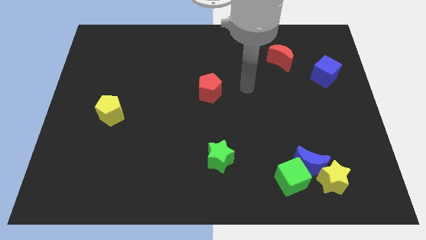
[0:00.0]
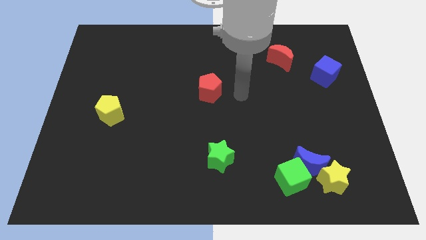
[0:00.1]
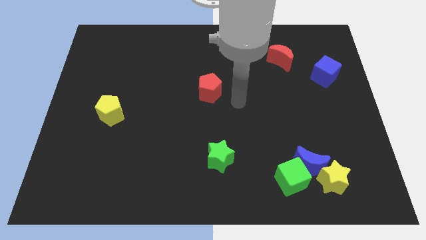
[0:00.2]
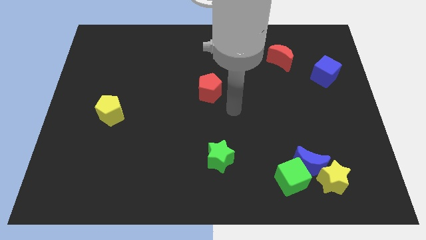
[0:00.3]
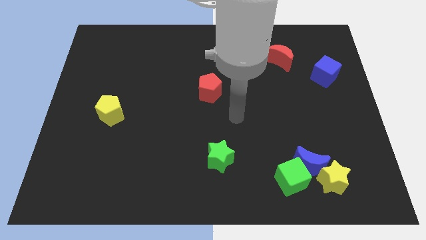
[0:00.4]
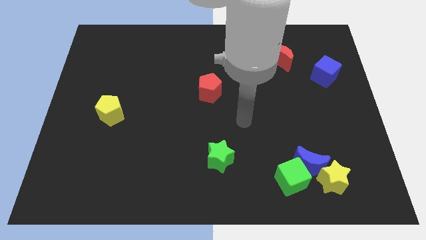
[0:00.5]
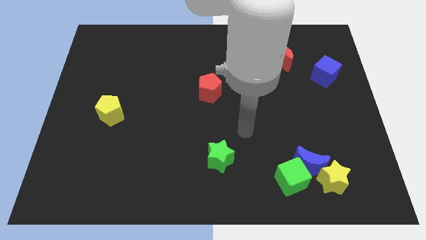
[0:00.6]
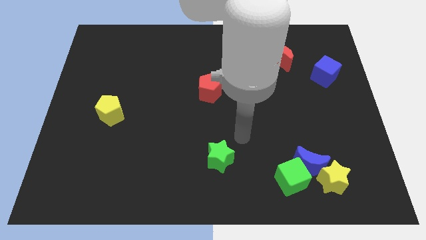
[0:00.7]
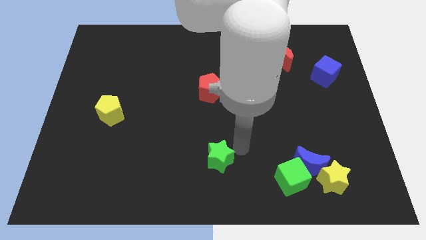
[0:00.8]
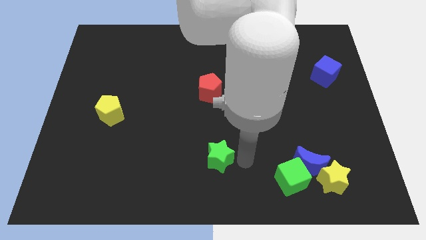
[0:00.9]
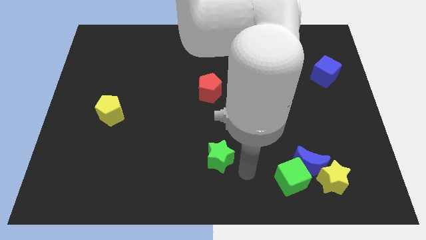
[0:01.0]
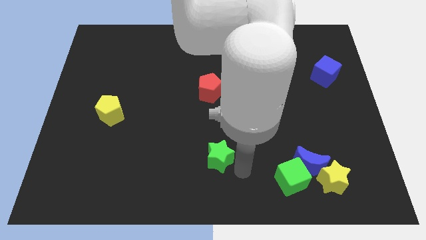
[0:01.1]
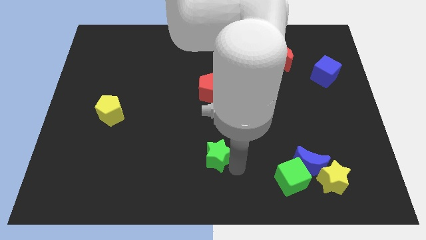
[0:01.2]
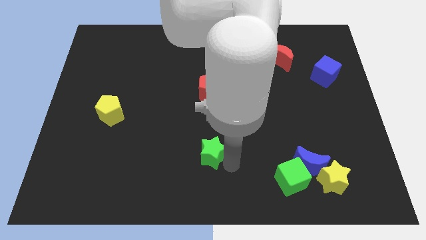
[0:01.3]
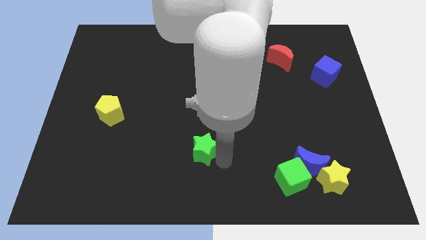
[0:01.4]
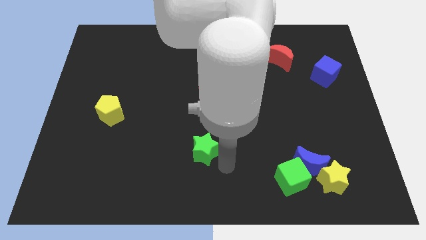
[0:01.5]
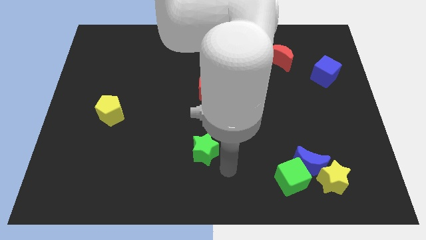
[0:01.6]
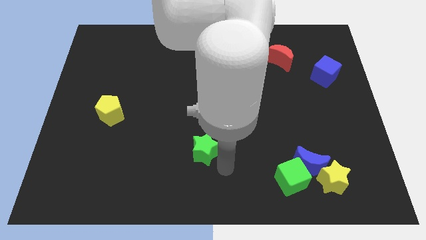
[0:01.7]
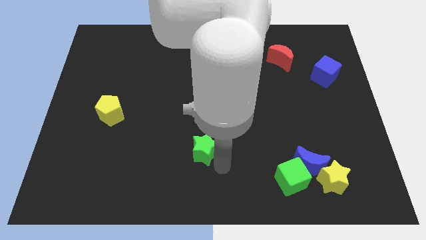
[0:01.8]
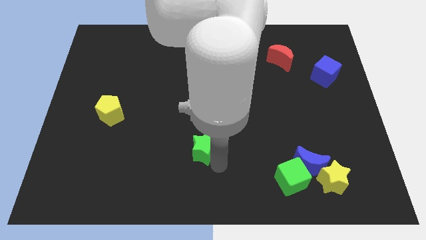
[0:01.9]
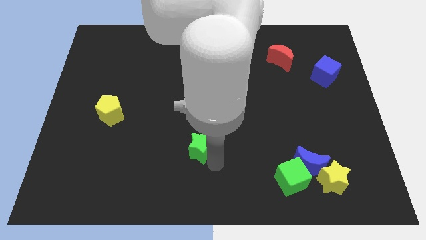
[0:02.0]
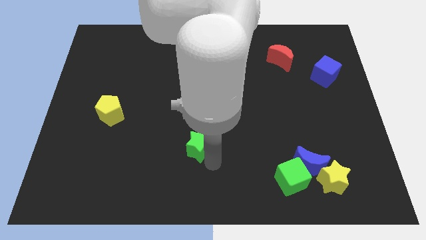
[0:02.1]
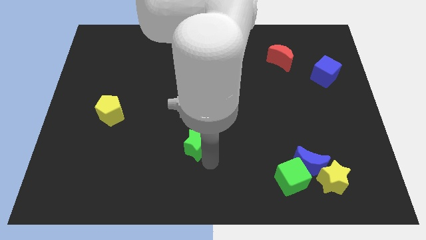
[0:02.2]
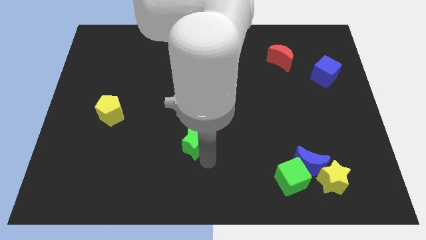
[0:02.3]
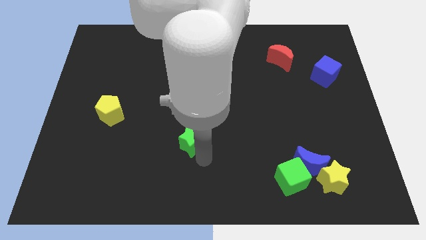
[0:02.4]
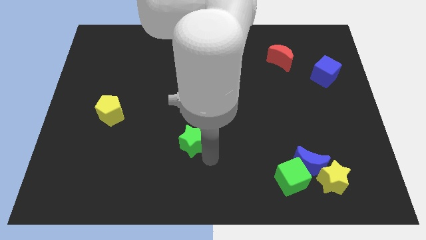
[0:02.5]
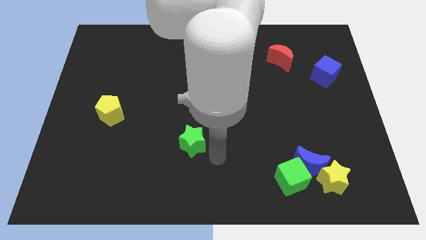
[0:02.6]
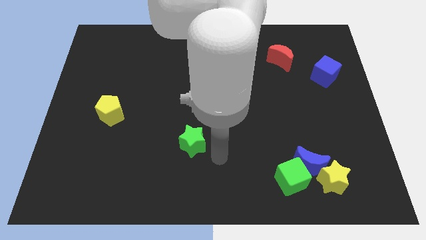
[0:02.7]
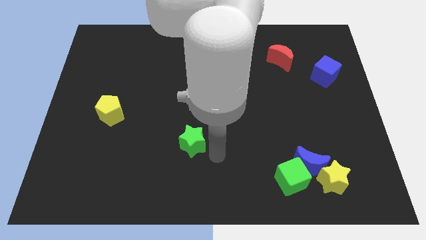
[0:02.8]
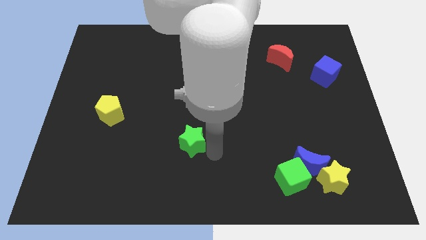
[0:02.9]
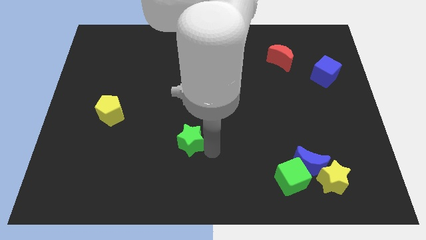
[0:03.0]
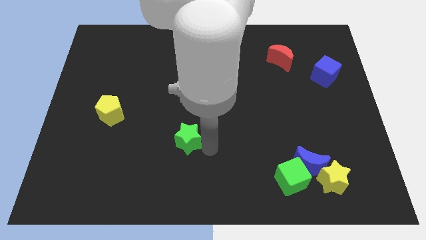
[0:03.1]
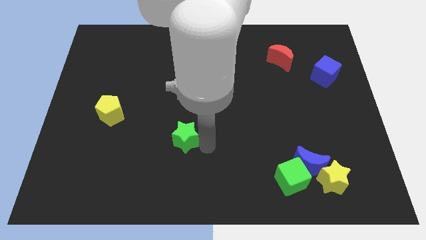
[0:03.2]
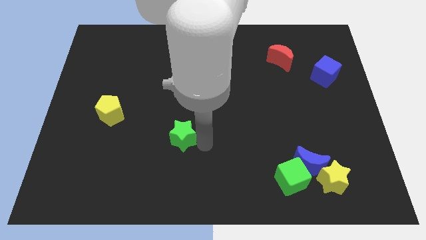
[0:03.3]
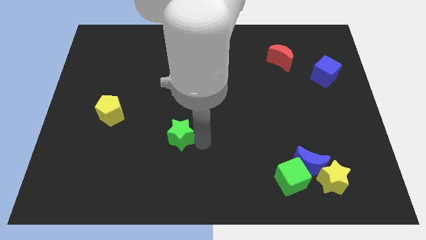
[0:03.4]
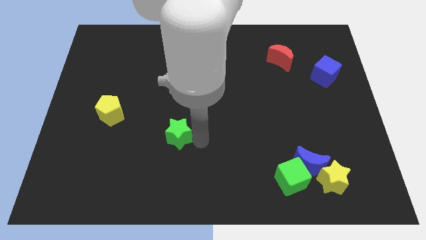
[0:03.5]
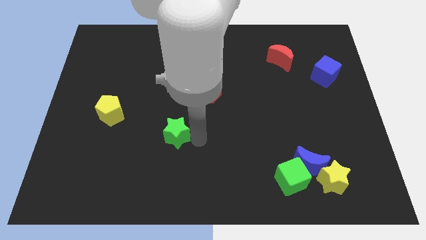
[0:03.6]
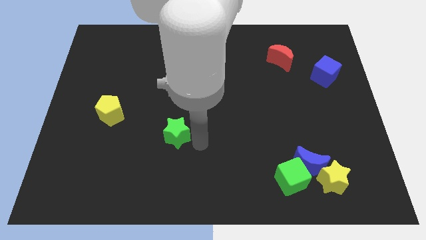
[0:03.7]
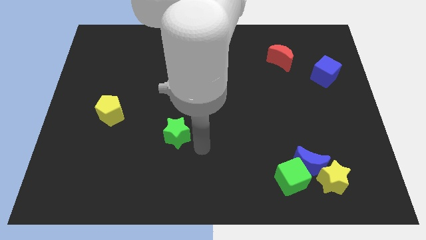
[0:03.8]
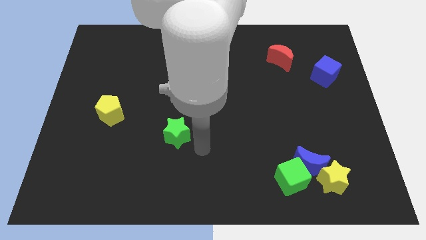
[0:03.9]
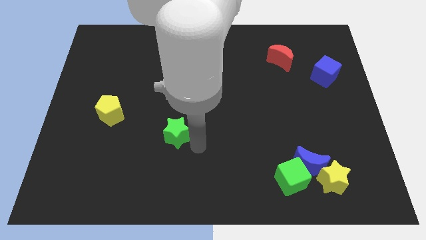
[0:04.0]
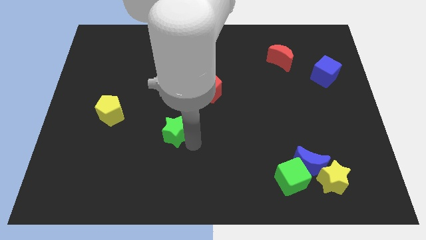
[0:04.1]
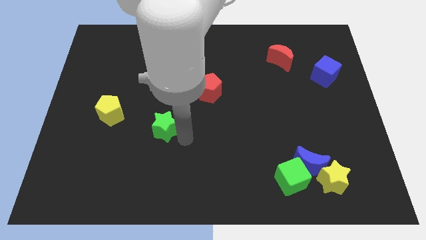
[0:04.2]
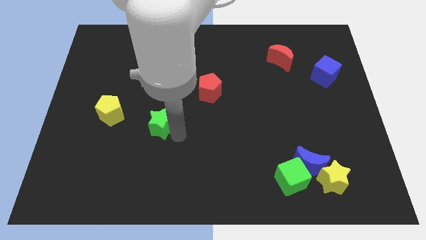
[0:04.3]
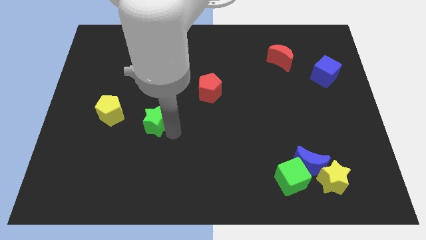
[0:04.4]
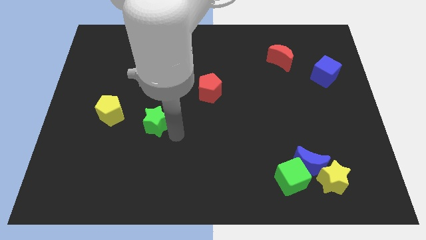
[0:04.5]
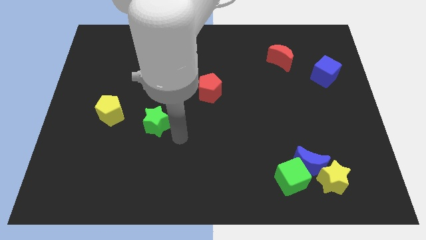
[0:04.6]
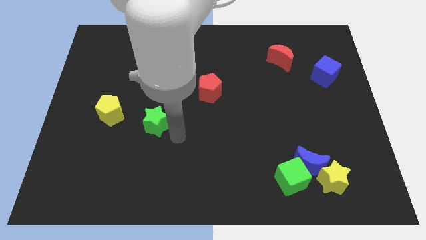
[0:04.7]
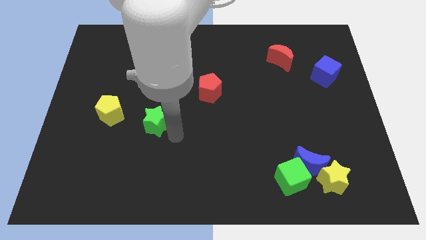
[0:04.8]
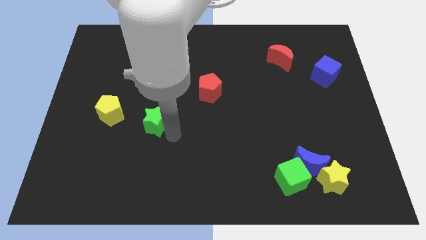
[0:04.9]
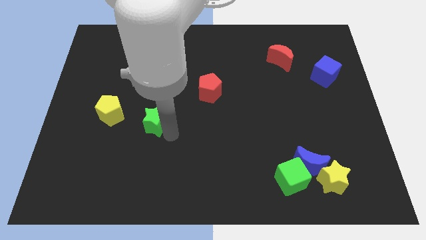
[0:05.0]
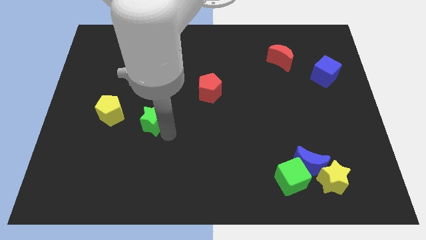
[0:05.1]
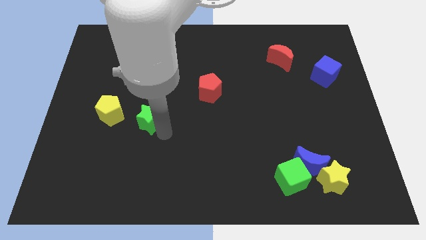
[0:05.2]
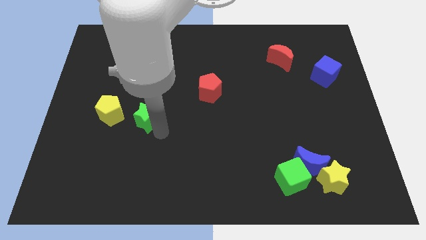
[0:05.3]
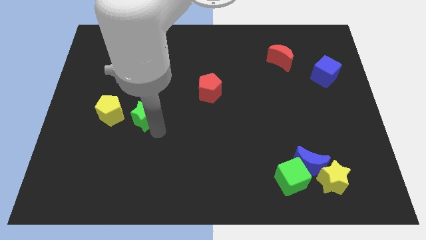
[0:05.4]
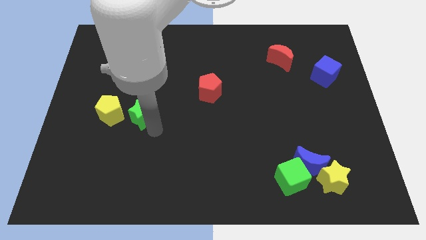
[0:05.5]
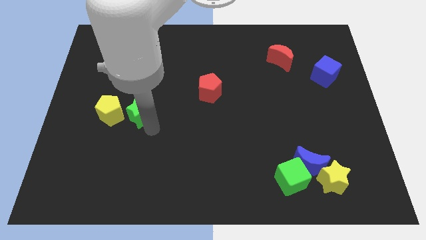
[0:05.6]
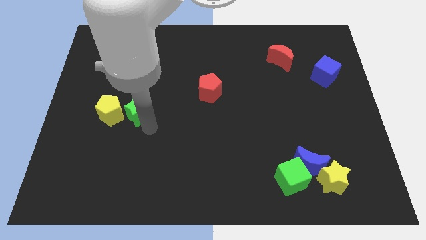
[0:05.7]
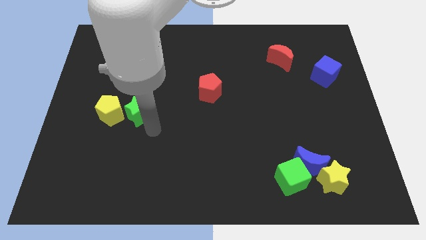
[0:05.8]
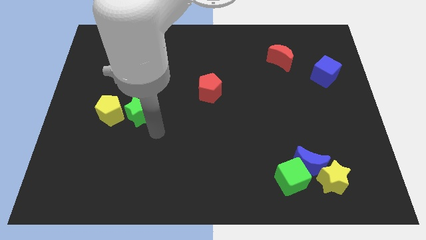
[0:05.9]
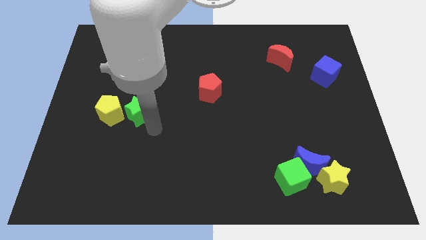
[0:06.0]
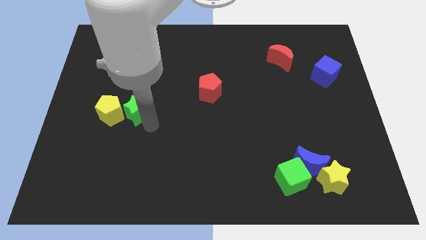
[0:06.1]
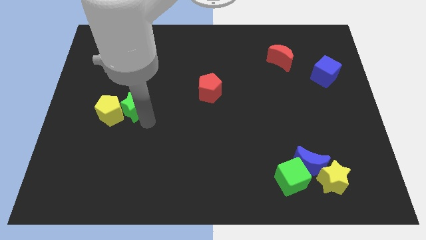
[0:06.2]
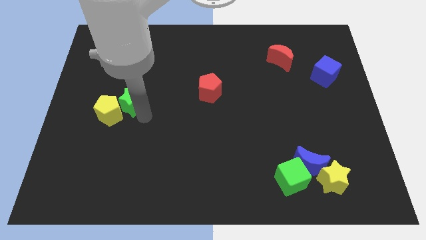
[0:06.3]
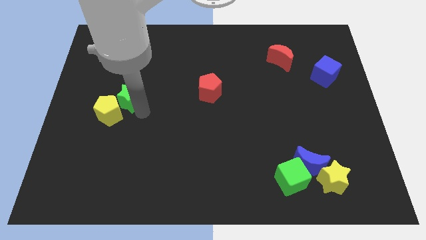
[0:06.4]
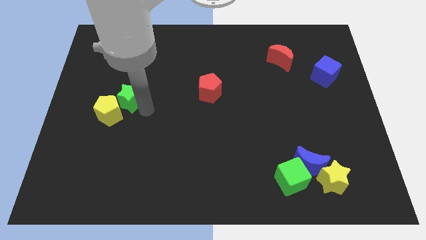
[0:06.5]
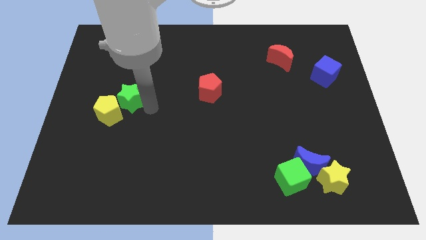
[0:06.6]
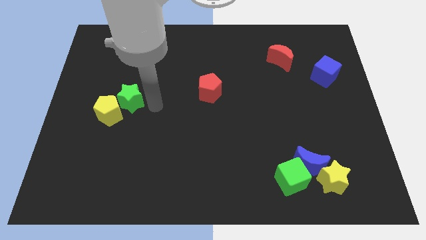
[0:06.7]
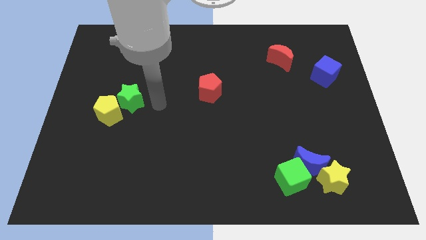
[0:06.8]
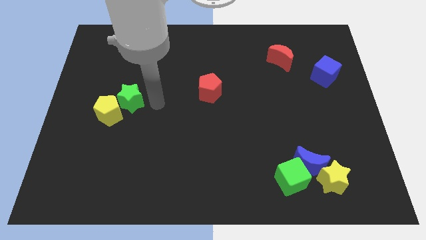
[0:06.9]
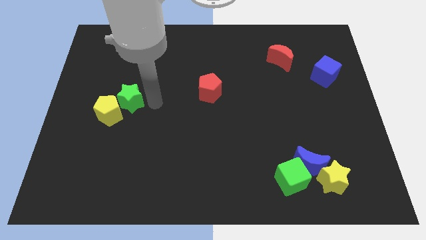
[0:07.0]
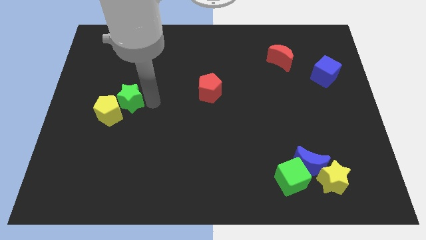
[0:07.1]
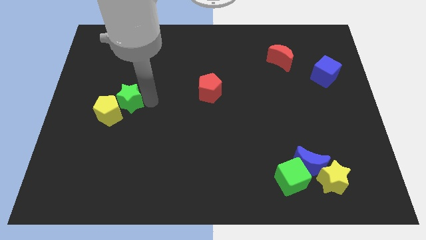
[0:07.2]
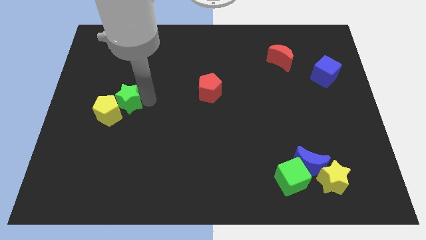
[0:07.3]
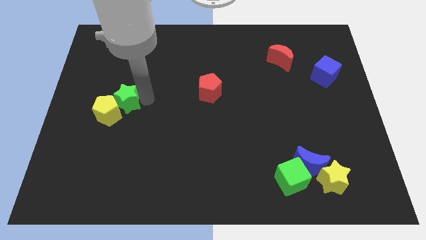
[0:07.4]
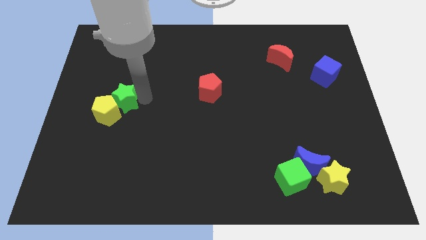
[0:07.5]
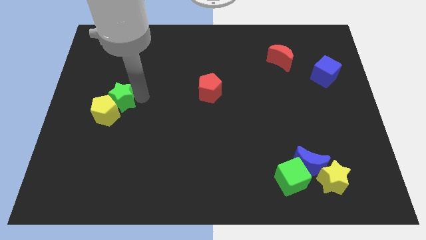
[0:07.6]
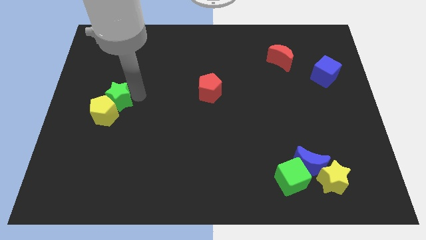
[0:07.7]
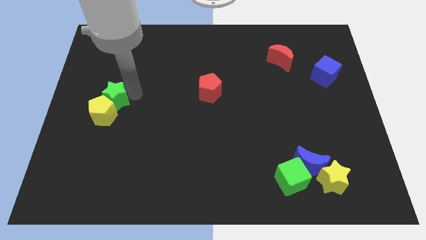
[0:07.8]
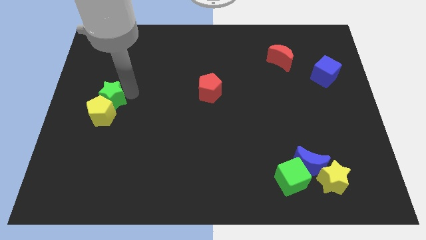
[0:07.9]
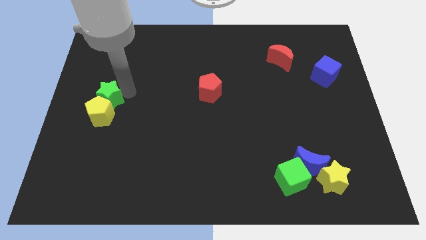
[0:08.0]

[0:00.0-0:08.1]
put the green star to the top left of the yellow pentagon
